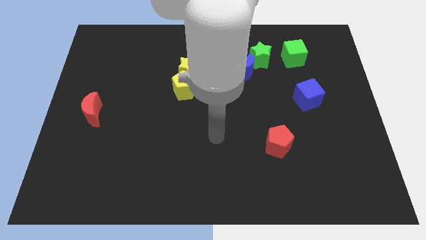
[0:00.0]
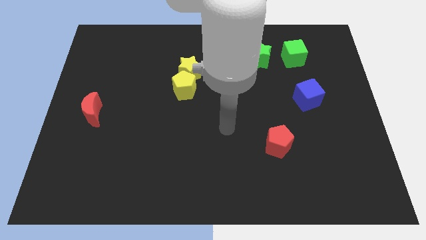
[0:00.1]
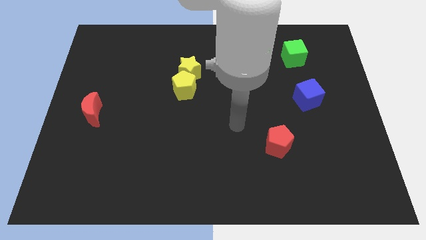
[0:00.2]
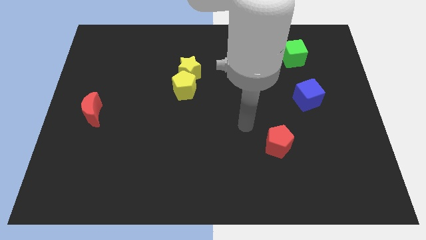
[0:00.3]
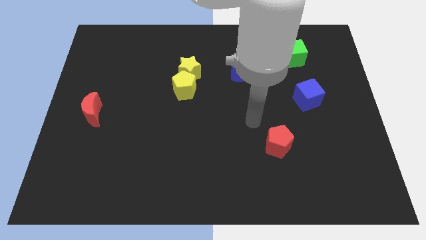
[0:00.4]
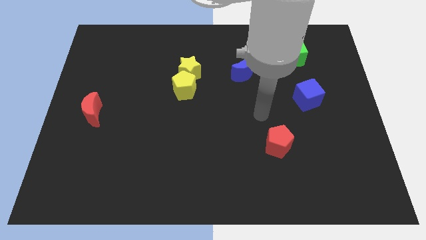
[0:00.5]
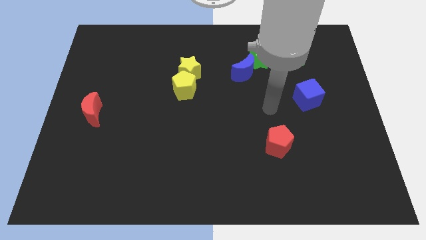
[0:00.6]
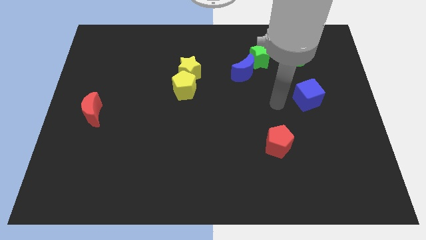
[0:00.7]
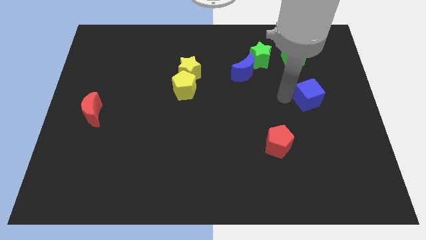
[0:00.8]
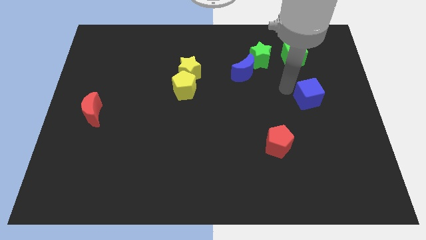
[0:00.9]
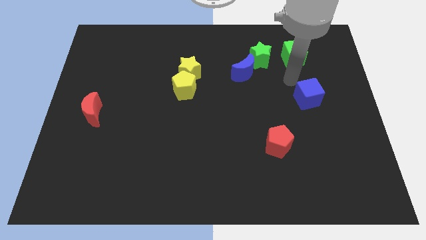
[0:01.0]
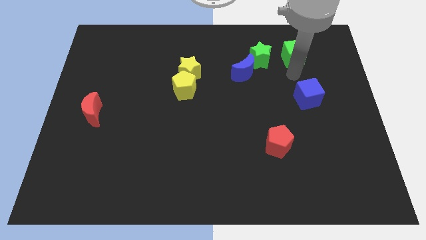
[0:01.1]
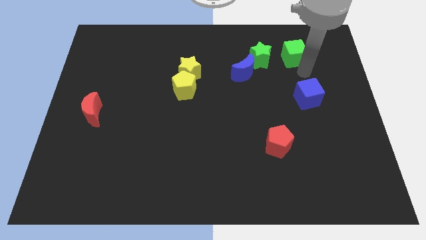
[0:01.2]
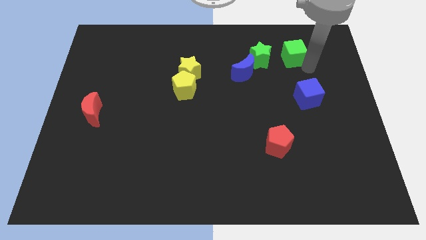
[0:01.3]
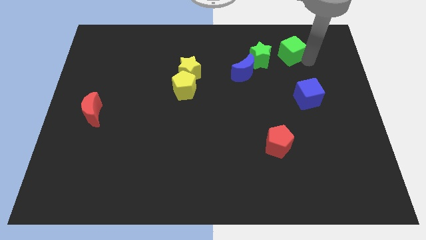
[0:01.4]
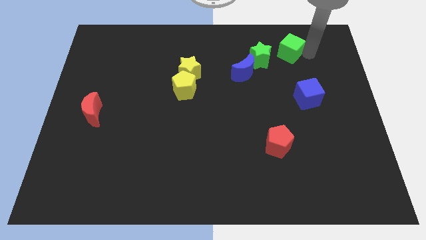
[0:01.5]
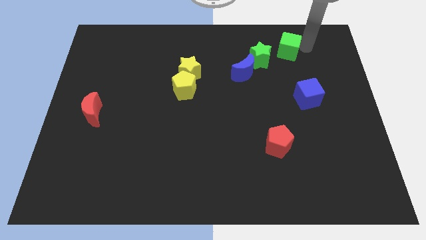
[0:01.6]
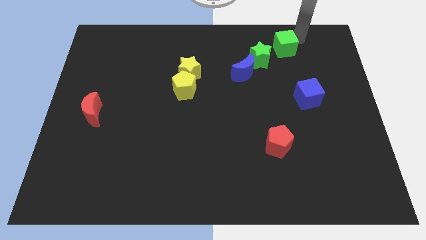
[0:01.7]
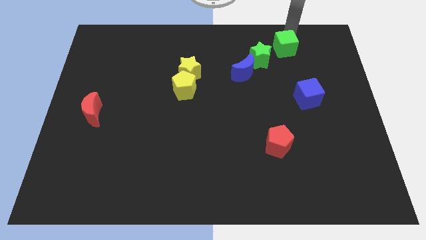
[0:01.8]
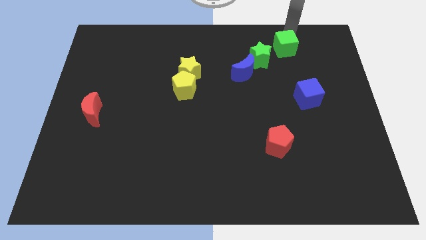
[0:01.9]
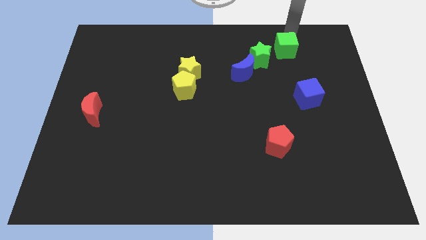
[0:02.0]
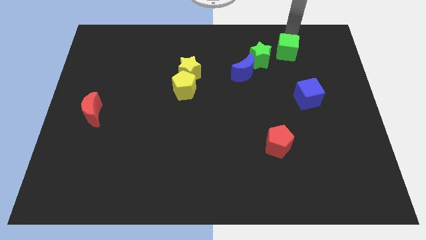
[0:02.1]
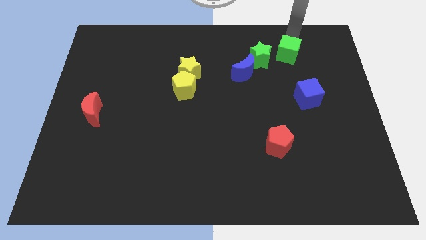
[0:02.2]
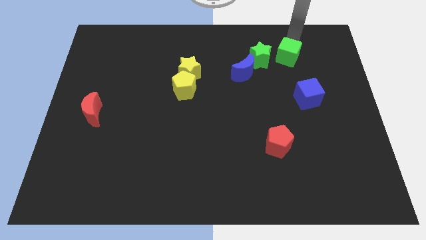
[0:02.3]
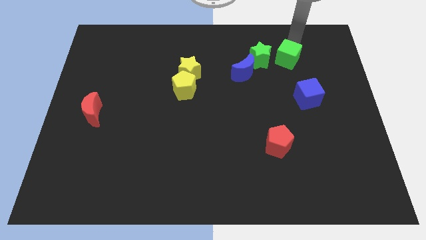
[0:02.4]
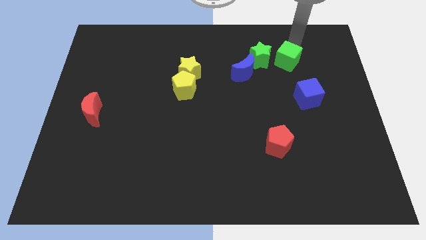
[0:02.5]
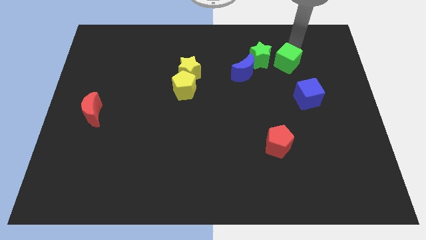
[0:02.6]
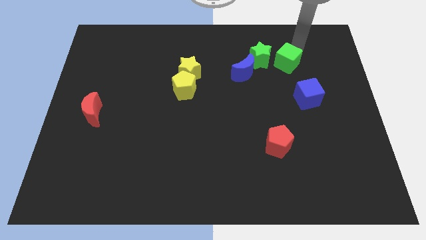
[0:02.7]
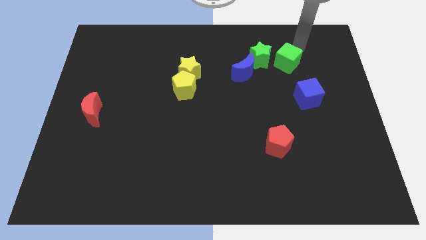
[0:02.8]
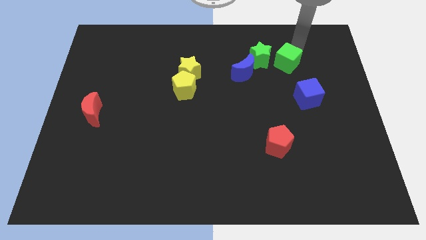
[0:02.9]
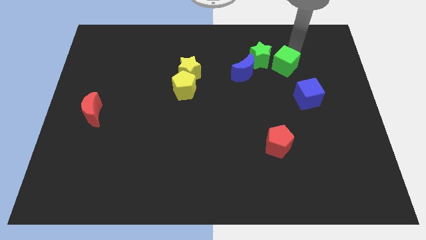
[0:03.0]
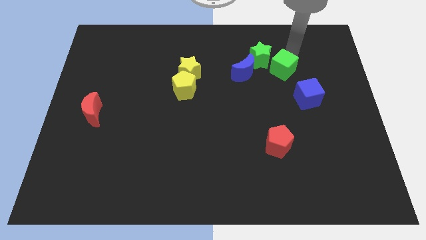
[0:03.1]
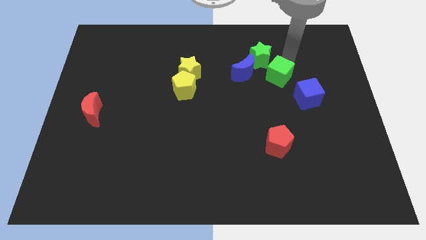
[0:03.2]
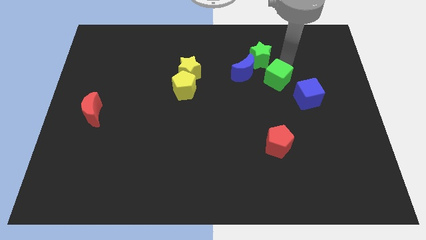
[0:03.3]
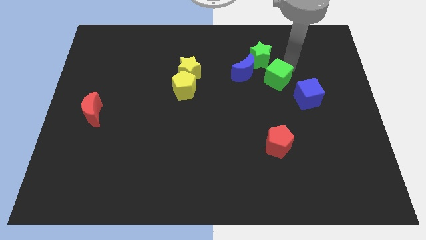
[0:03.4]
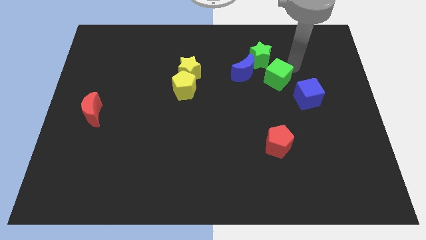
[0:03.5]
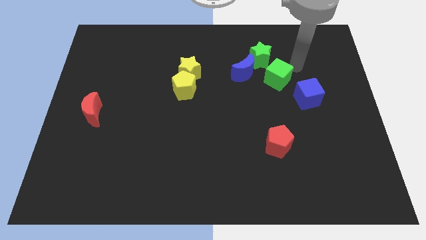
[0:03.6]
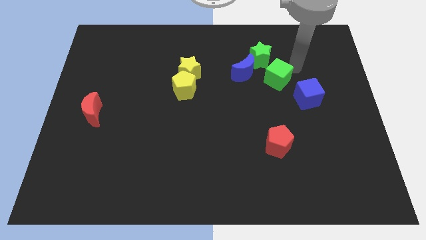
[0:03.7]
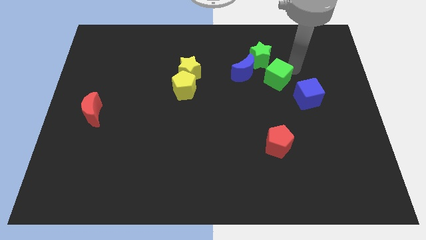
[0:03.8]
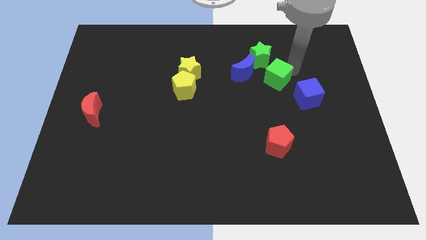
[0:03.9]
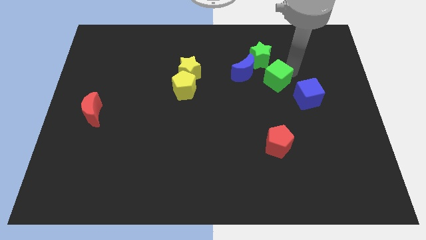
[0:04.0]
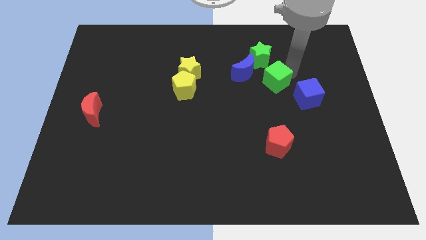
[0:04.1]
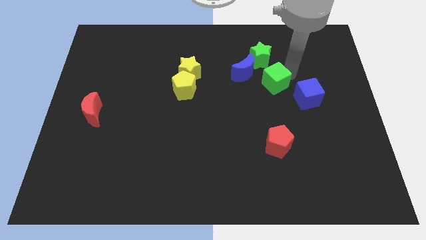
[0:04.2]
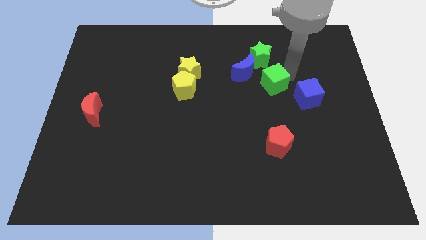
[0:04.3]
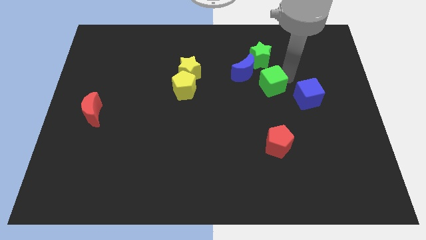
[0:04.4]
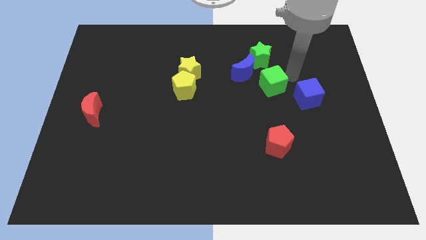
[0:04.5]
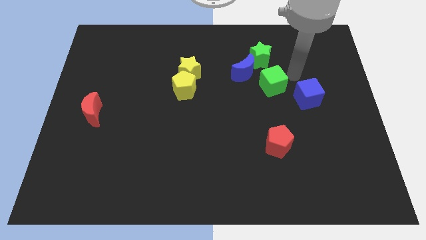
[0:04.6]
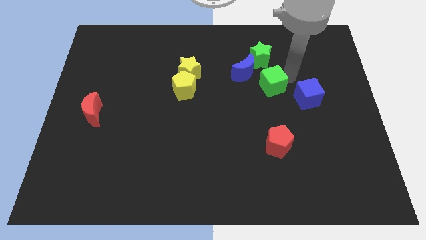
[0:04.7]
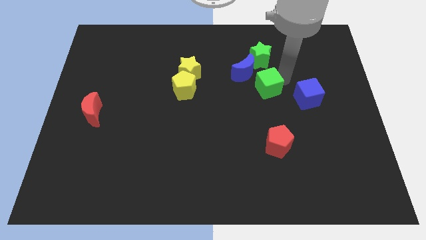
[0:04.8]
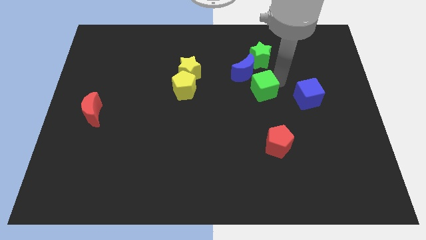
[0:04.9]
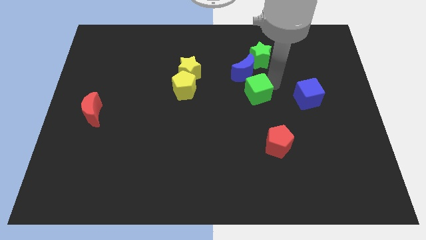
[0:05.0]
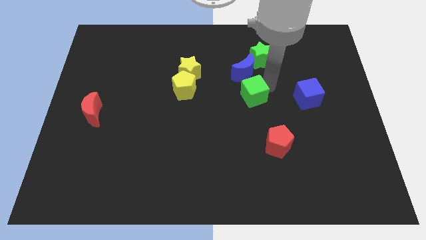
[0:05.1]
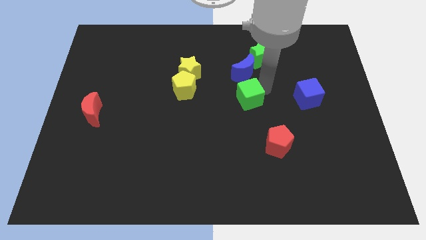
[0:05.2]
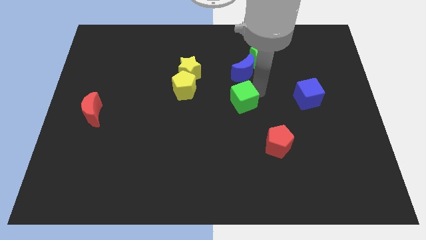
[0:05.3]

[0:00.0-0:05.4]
move the green cube downwards and to the left diagonally

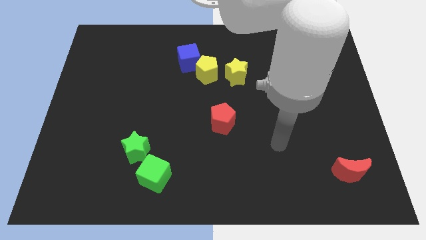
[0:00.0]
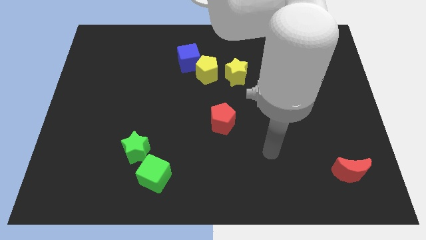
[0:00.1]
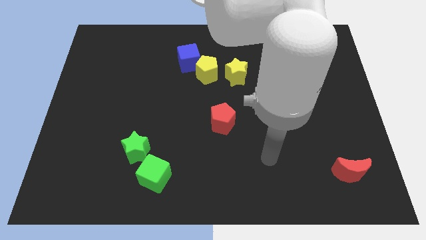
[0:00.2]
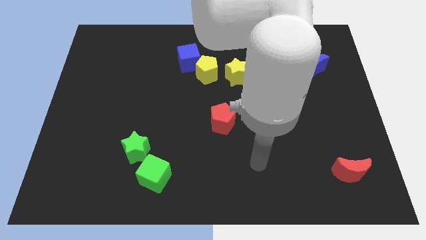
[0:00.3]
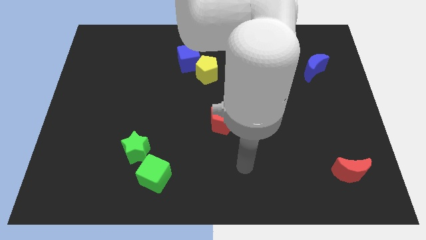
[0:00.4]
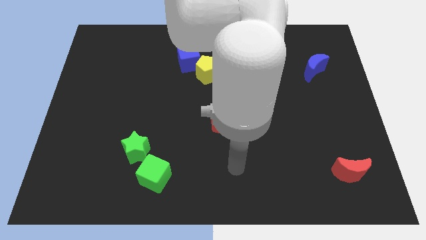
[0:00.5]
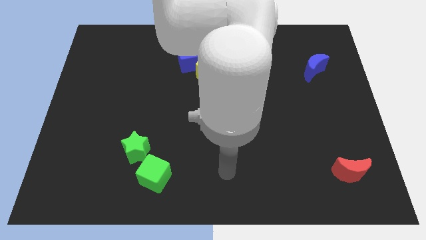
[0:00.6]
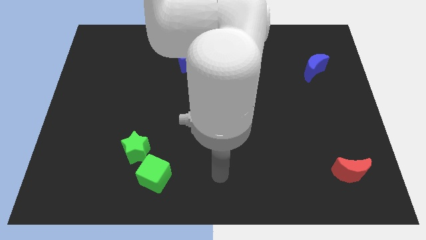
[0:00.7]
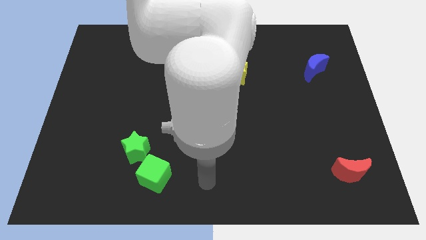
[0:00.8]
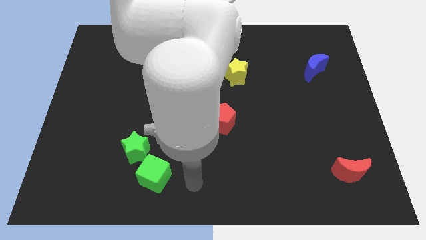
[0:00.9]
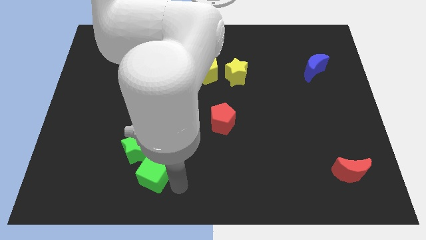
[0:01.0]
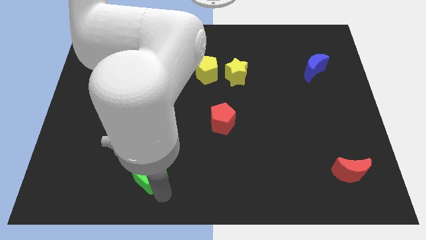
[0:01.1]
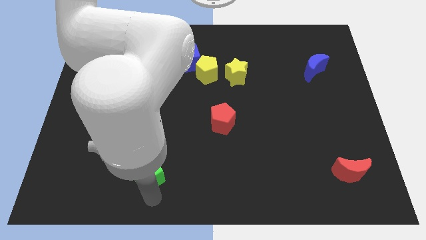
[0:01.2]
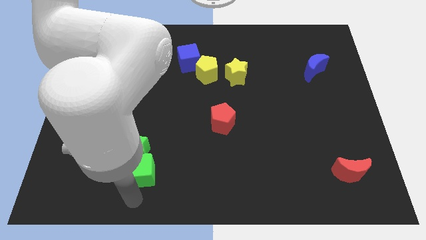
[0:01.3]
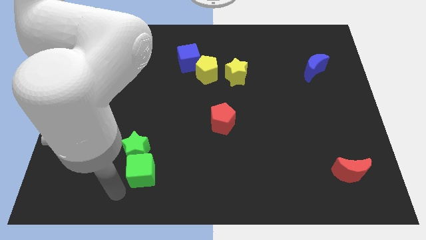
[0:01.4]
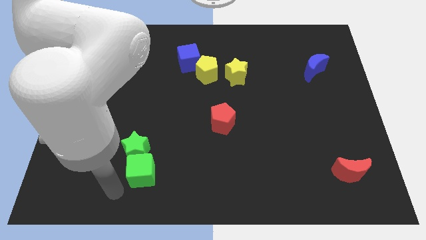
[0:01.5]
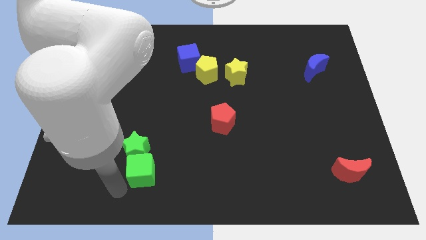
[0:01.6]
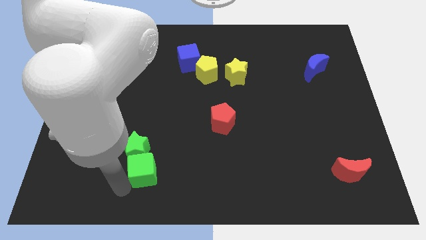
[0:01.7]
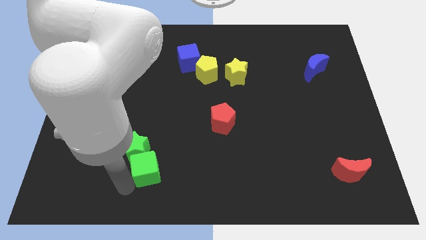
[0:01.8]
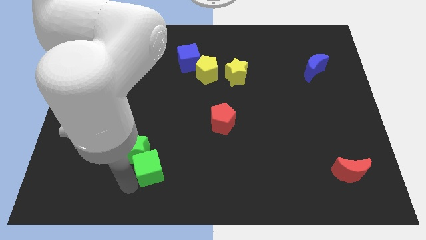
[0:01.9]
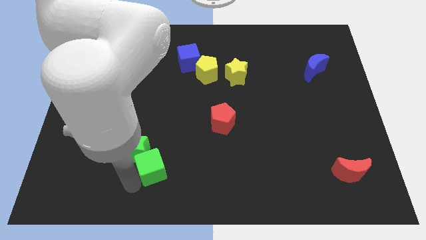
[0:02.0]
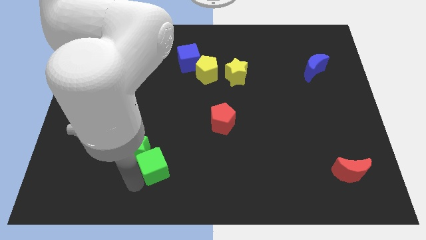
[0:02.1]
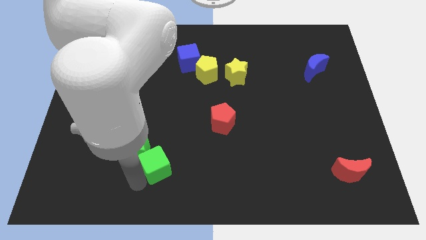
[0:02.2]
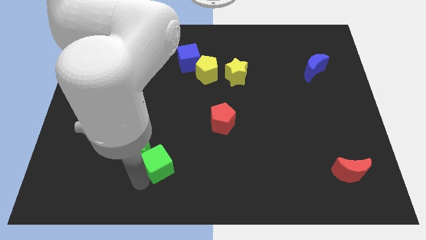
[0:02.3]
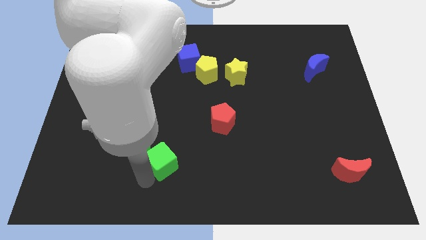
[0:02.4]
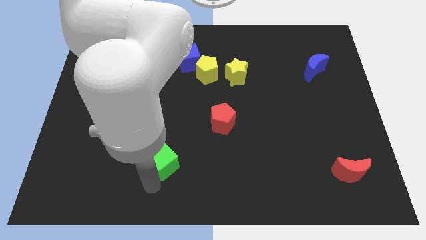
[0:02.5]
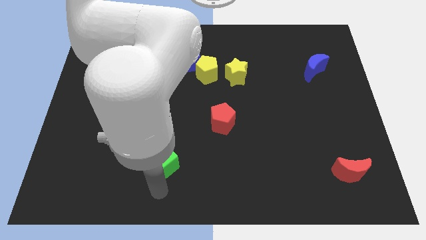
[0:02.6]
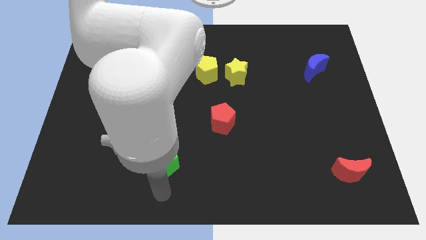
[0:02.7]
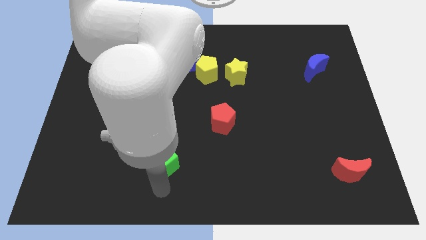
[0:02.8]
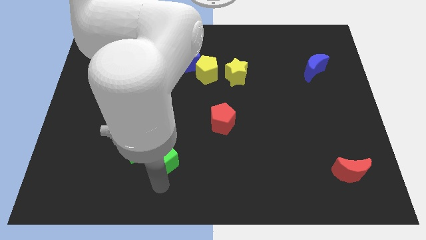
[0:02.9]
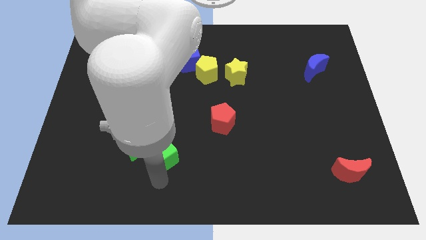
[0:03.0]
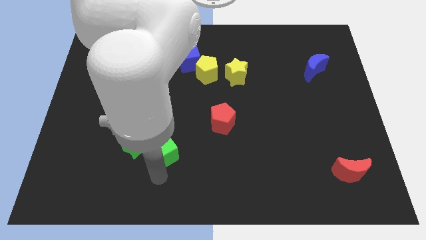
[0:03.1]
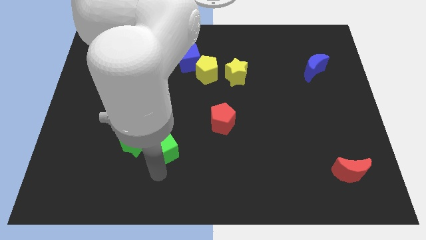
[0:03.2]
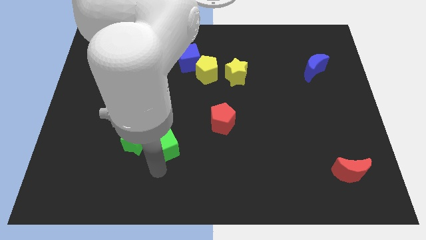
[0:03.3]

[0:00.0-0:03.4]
slightly push the green cube up
